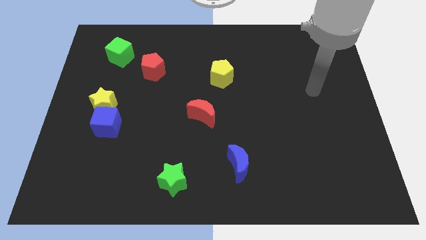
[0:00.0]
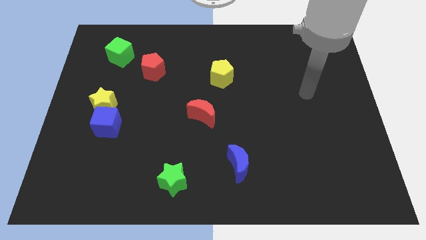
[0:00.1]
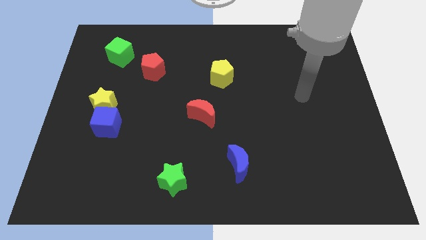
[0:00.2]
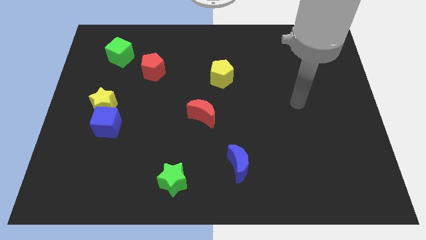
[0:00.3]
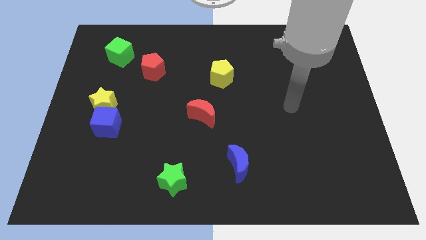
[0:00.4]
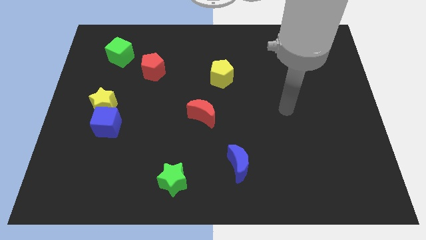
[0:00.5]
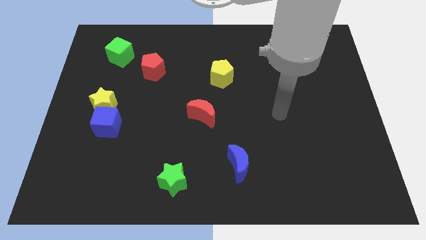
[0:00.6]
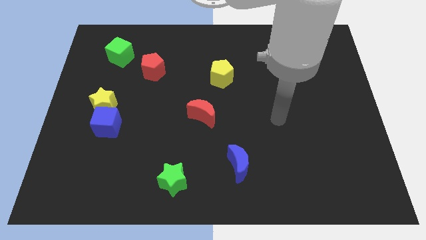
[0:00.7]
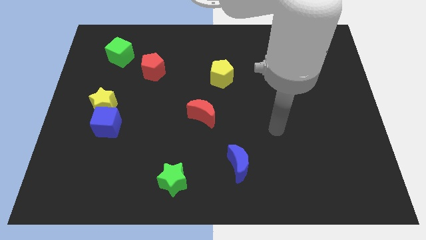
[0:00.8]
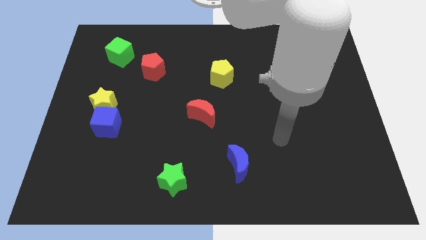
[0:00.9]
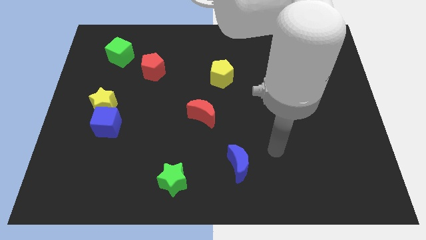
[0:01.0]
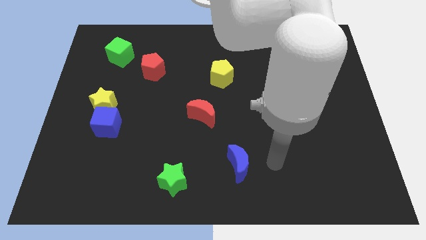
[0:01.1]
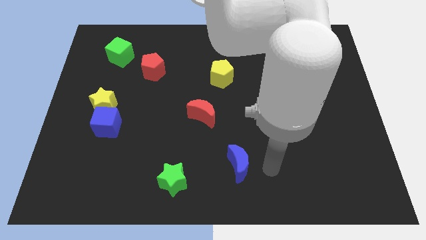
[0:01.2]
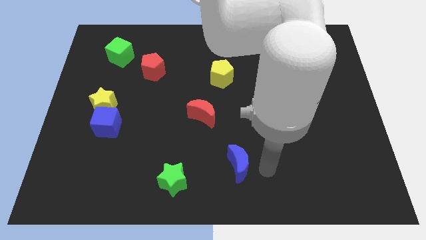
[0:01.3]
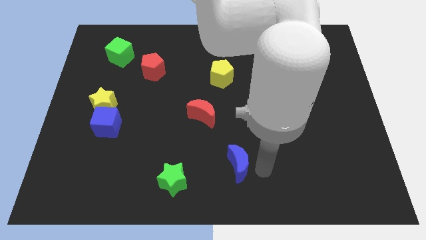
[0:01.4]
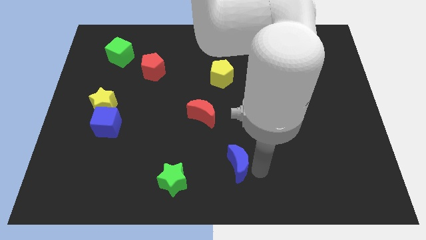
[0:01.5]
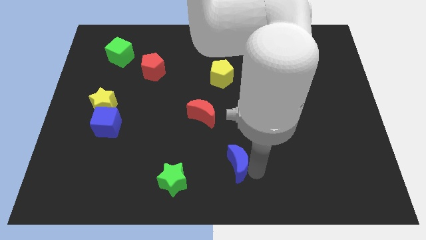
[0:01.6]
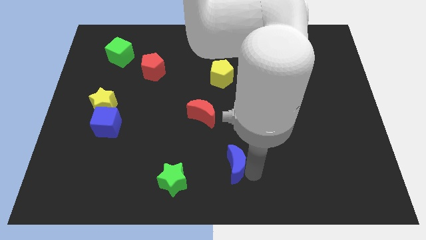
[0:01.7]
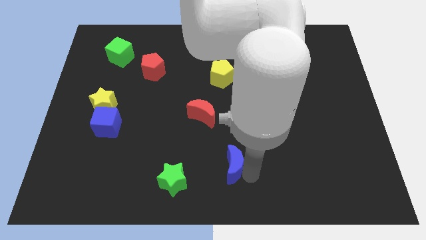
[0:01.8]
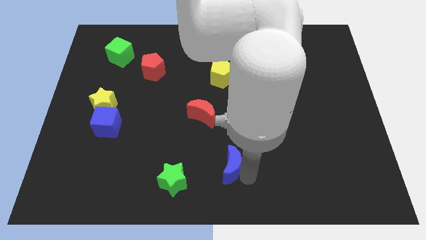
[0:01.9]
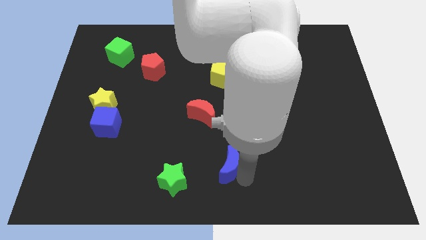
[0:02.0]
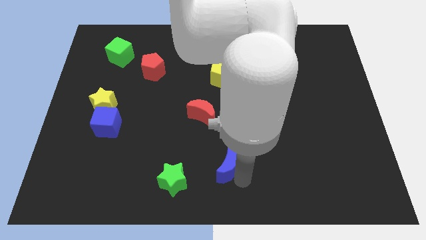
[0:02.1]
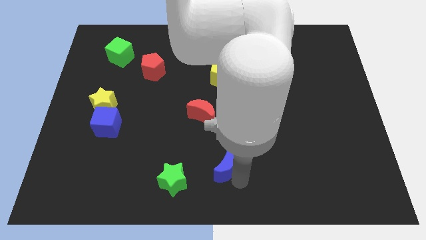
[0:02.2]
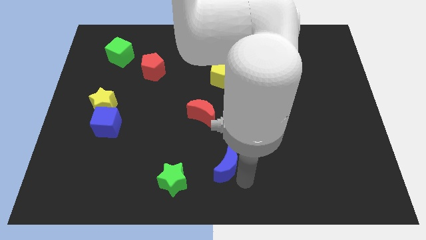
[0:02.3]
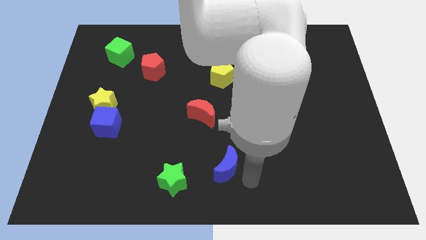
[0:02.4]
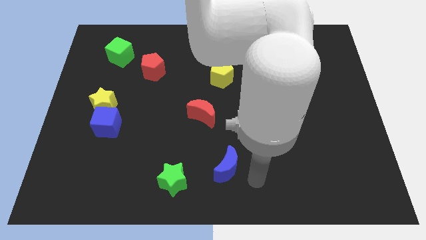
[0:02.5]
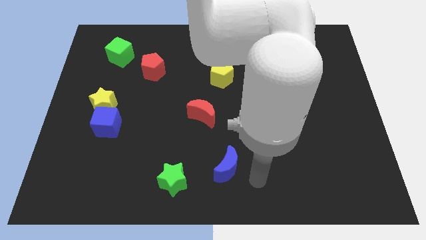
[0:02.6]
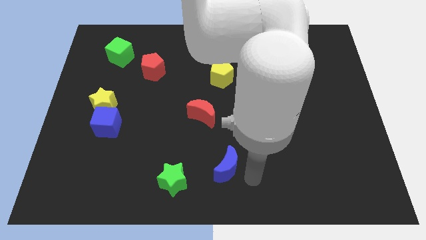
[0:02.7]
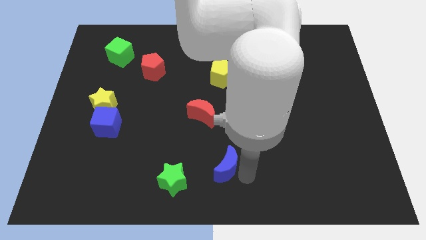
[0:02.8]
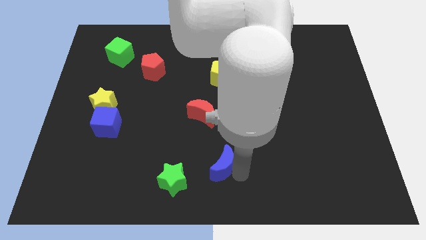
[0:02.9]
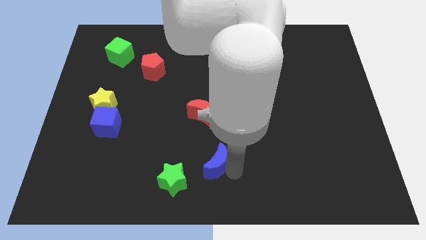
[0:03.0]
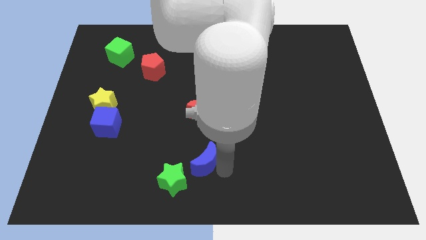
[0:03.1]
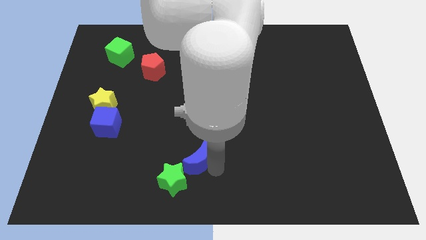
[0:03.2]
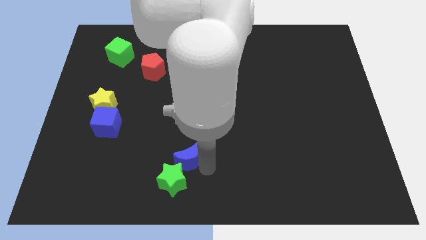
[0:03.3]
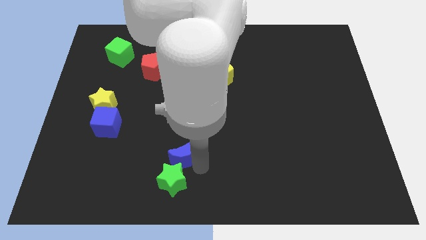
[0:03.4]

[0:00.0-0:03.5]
push the blue moon somewhat upwards and then to the left

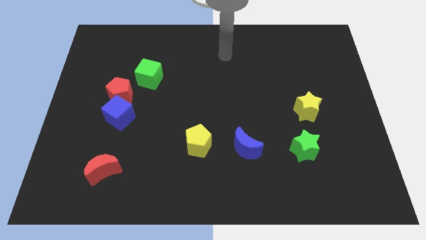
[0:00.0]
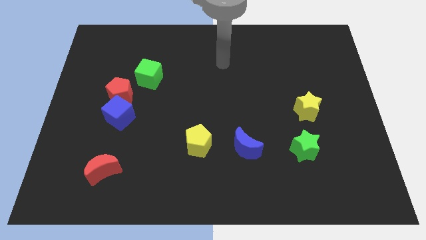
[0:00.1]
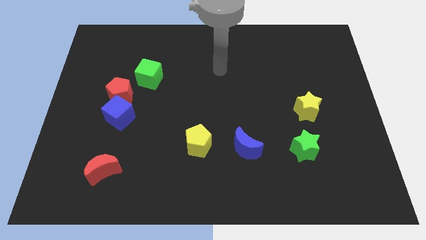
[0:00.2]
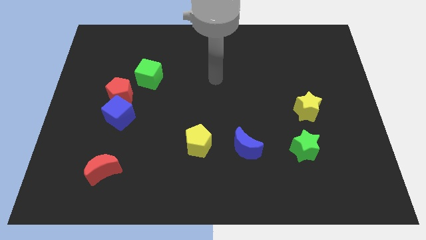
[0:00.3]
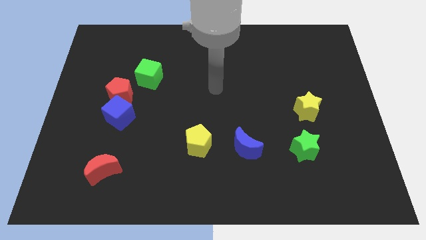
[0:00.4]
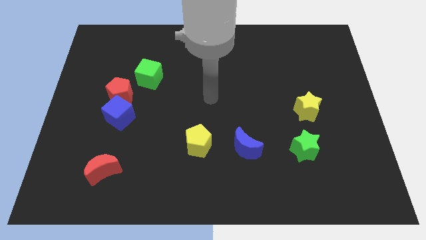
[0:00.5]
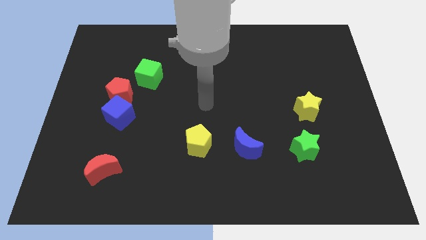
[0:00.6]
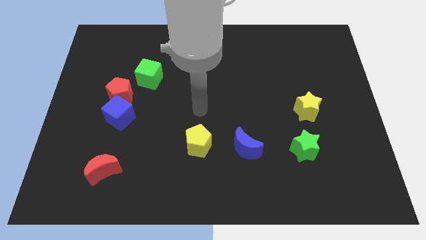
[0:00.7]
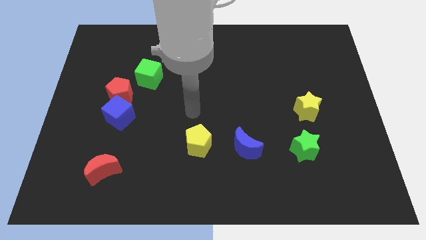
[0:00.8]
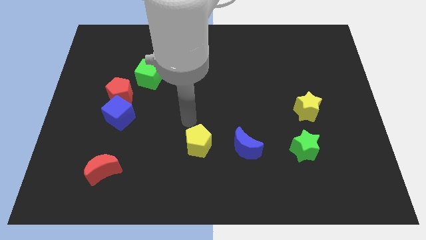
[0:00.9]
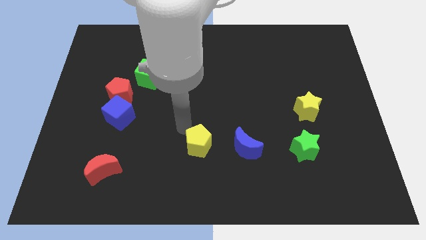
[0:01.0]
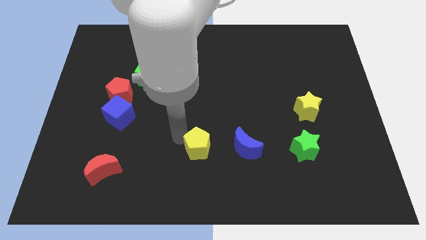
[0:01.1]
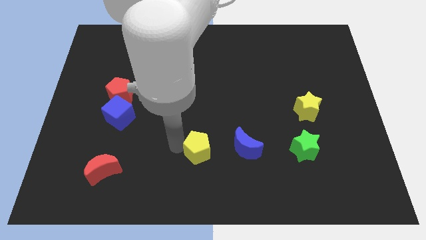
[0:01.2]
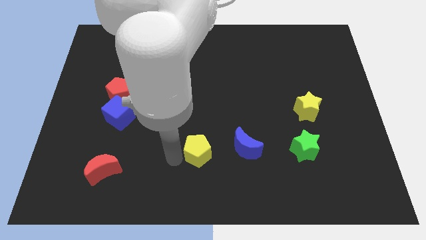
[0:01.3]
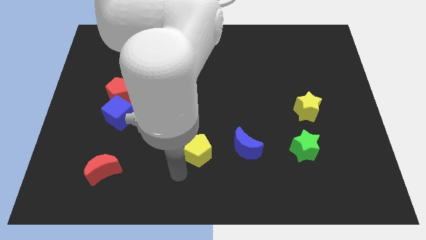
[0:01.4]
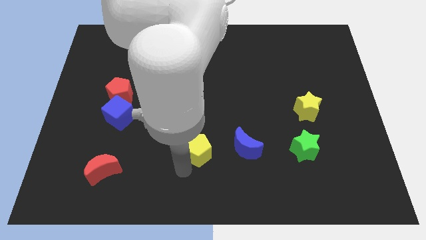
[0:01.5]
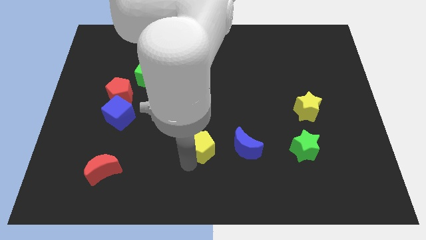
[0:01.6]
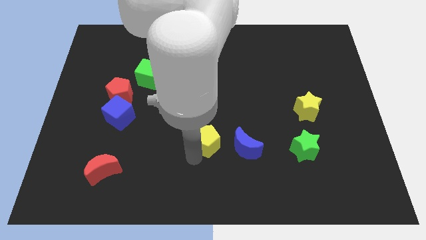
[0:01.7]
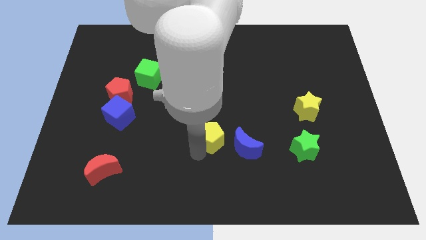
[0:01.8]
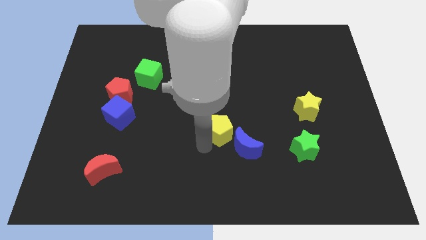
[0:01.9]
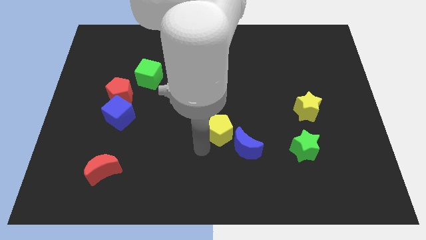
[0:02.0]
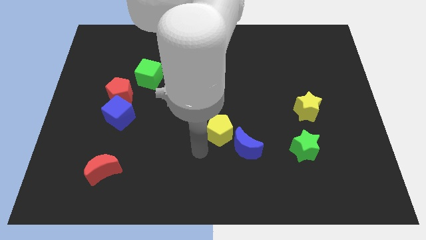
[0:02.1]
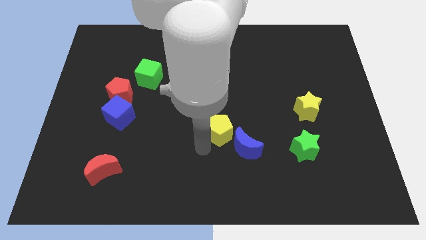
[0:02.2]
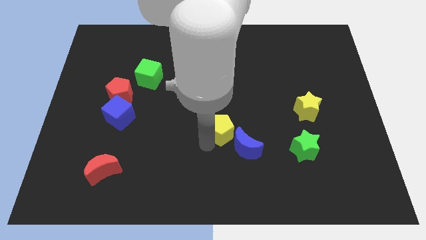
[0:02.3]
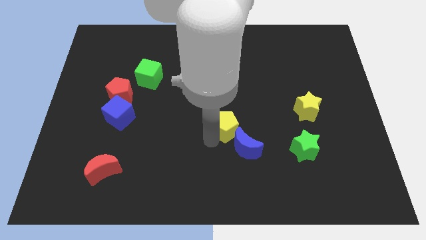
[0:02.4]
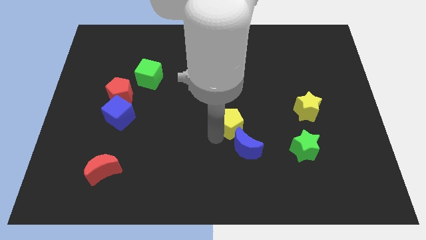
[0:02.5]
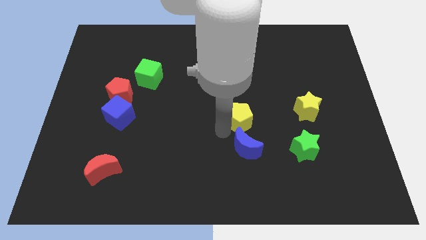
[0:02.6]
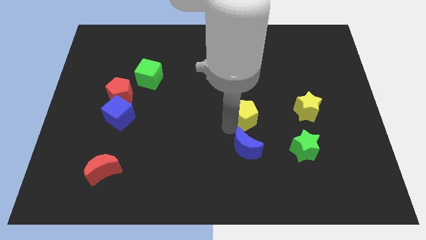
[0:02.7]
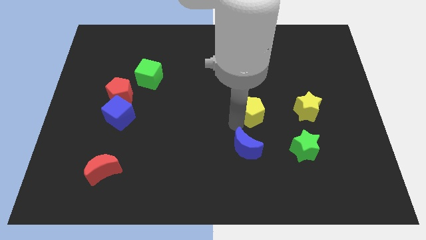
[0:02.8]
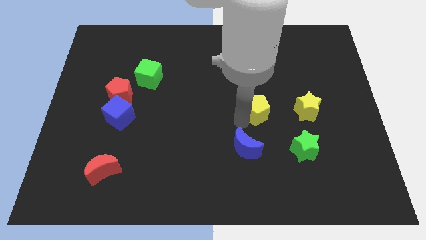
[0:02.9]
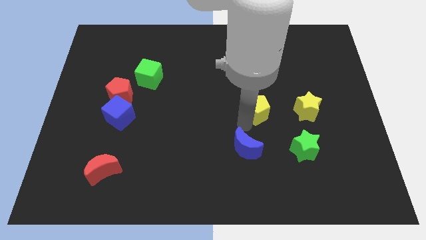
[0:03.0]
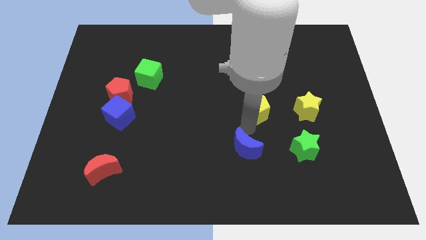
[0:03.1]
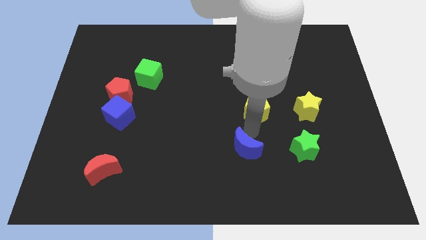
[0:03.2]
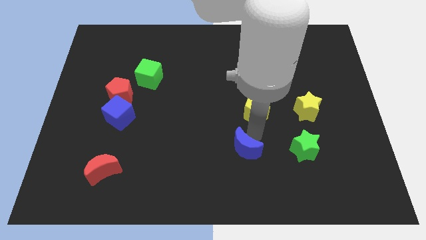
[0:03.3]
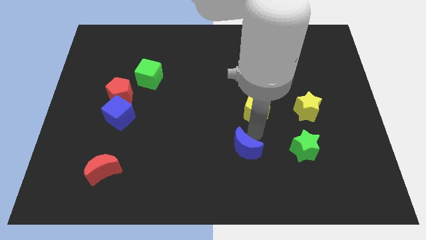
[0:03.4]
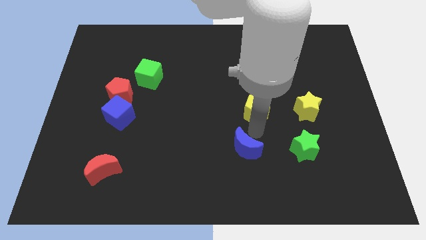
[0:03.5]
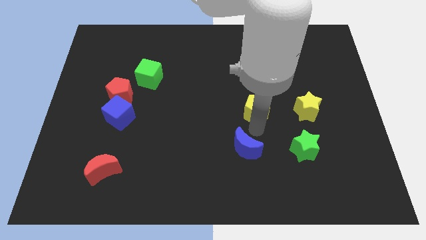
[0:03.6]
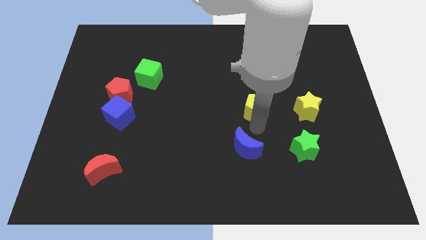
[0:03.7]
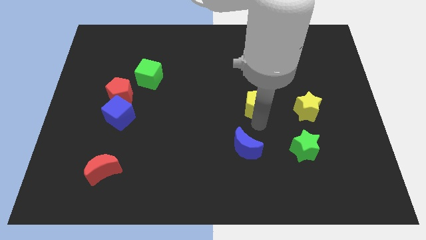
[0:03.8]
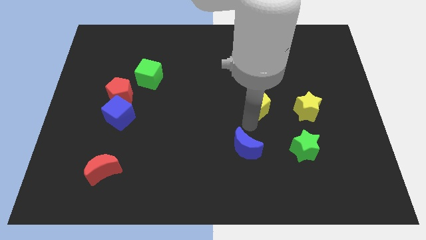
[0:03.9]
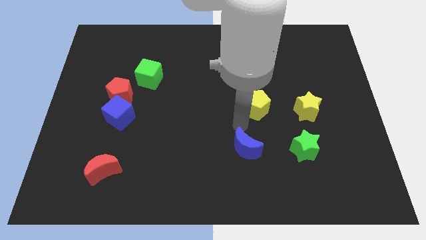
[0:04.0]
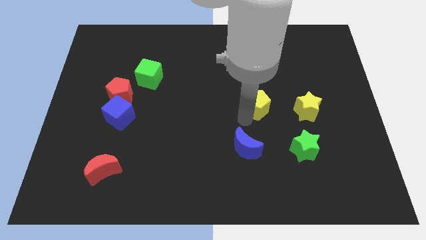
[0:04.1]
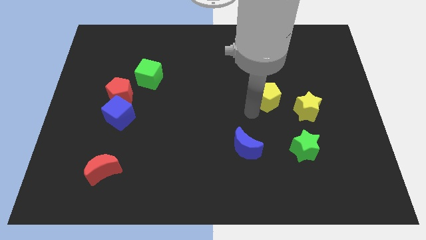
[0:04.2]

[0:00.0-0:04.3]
push the yellow pentagon up and to the right diagonally
